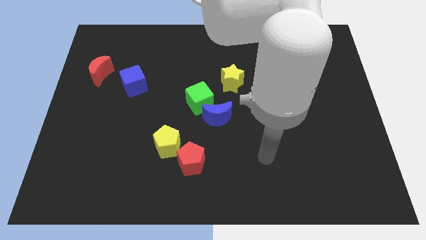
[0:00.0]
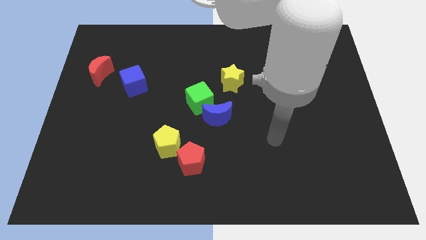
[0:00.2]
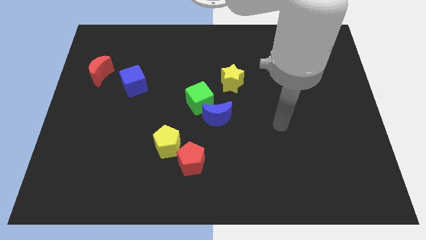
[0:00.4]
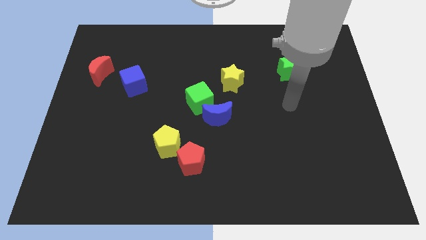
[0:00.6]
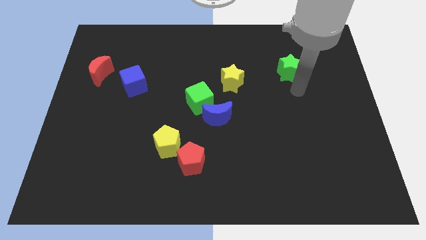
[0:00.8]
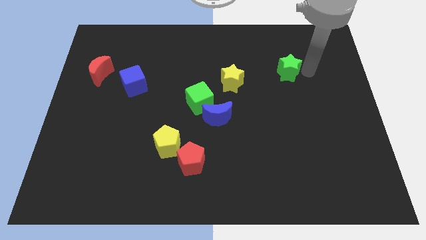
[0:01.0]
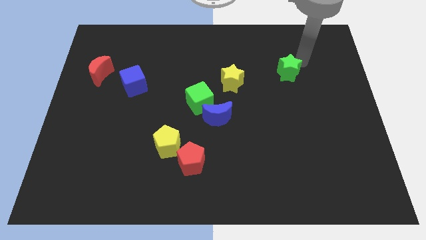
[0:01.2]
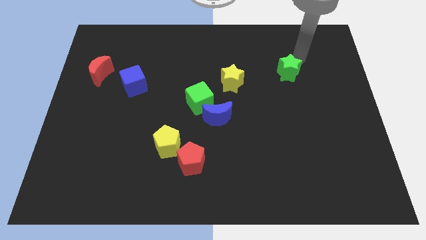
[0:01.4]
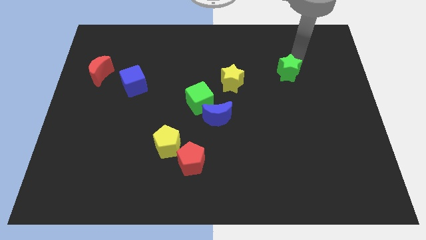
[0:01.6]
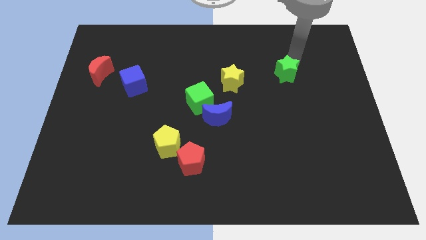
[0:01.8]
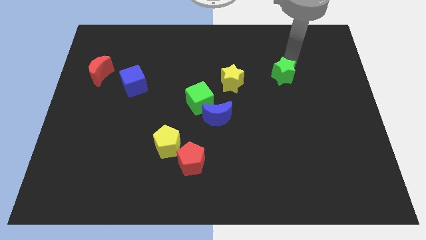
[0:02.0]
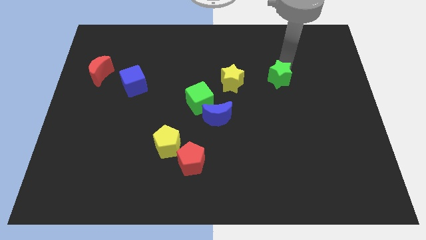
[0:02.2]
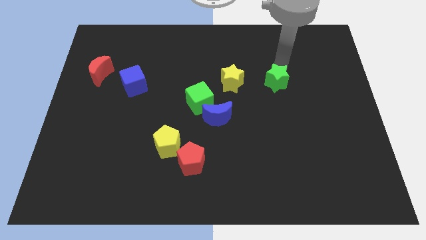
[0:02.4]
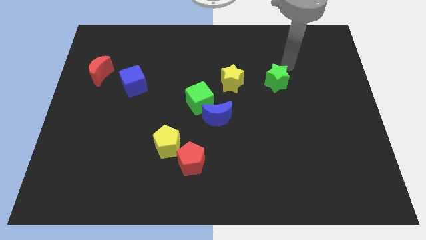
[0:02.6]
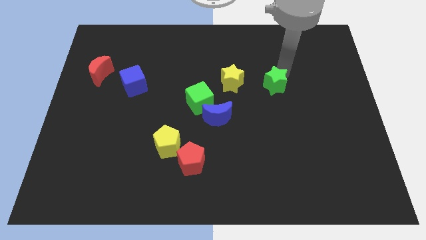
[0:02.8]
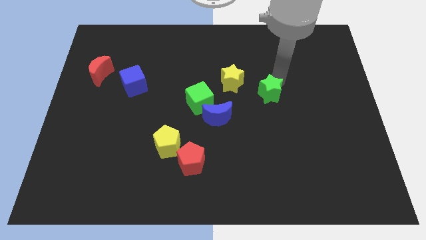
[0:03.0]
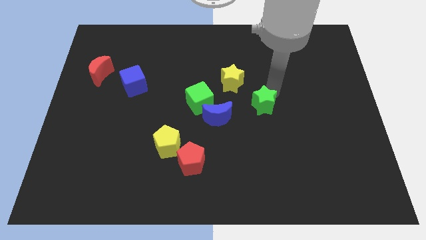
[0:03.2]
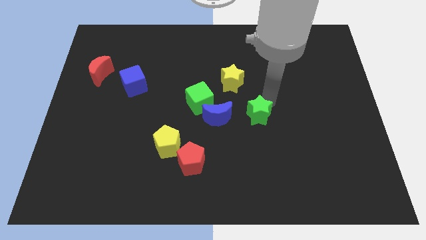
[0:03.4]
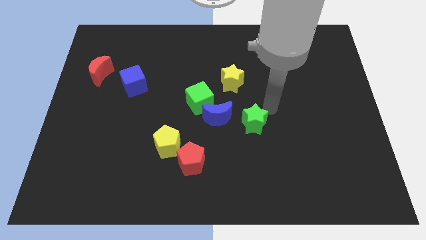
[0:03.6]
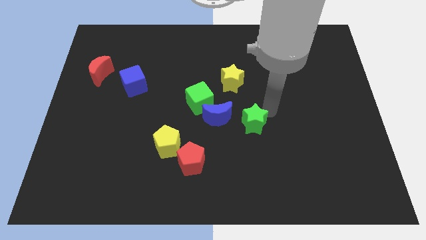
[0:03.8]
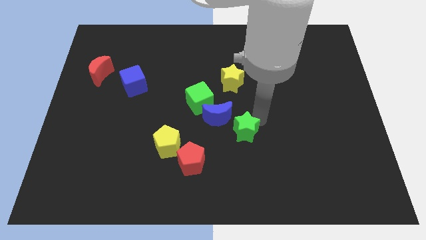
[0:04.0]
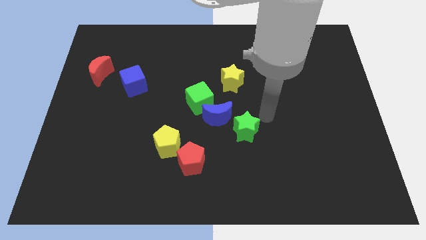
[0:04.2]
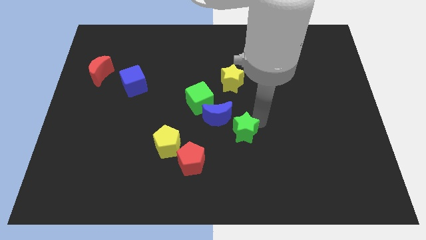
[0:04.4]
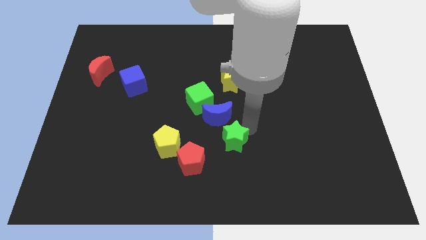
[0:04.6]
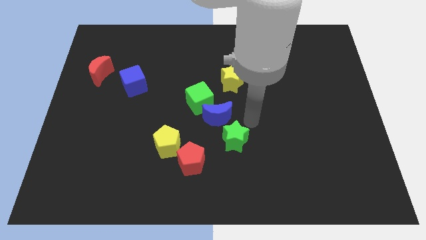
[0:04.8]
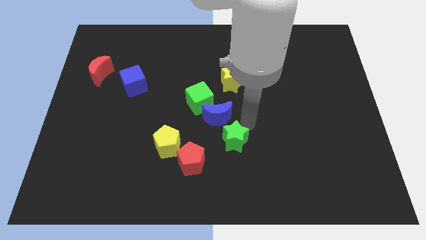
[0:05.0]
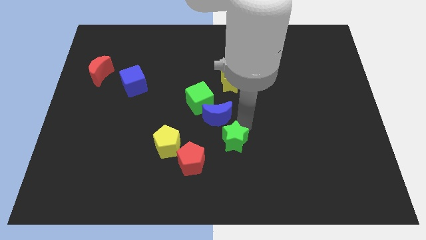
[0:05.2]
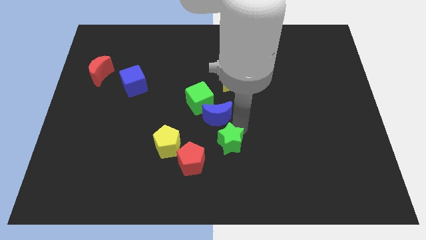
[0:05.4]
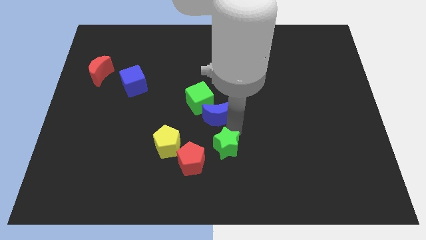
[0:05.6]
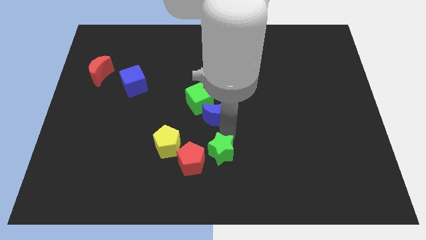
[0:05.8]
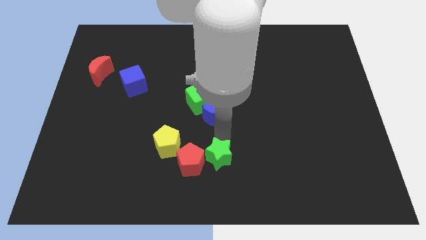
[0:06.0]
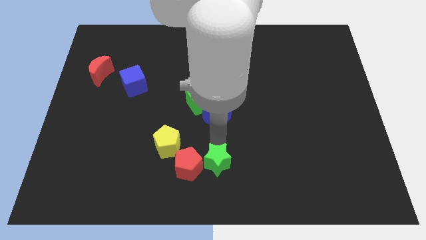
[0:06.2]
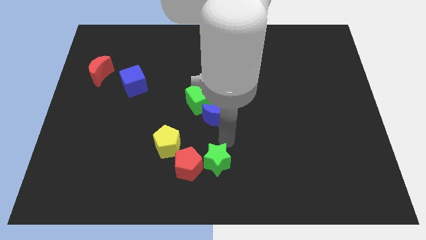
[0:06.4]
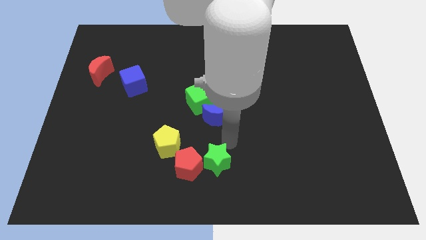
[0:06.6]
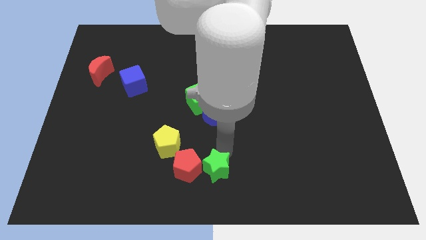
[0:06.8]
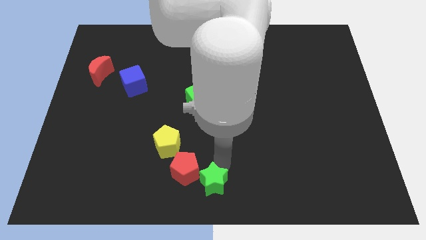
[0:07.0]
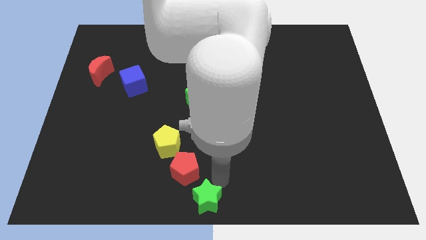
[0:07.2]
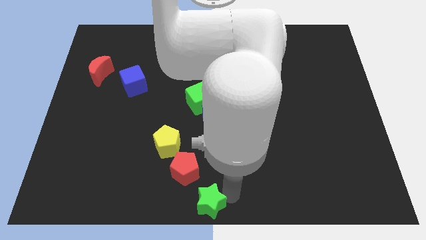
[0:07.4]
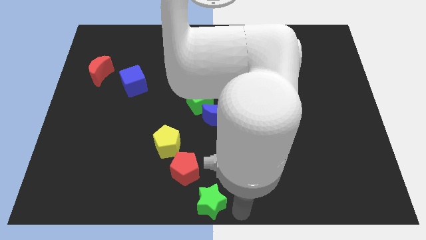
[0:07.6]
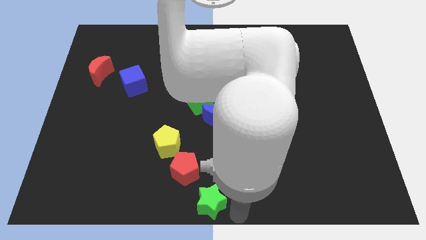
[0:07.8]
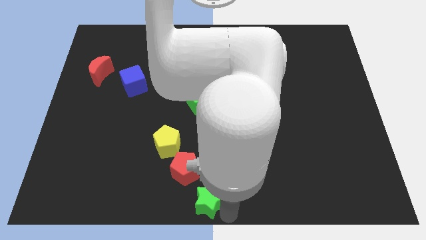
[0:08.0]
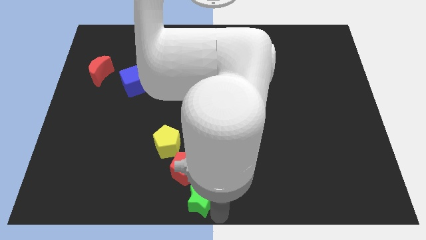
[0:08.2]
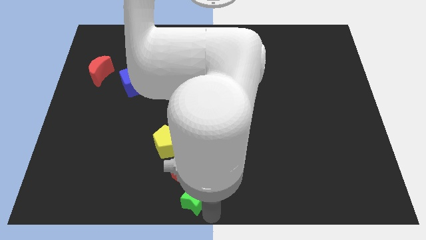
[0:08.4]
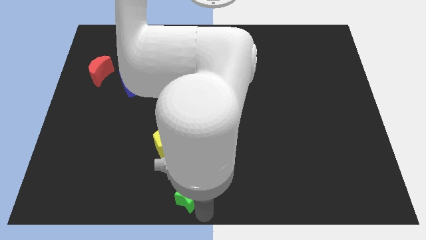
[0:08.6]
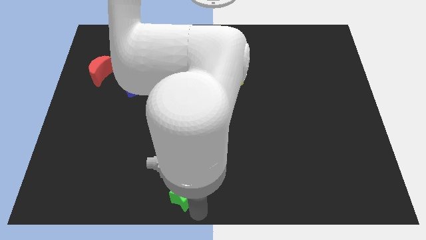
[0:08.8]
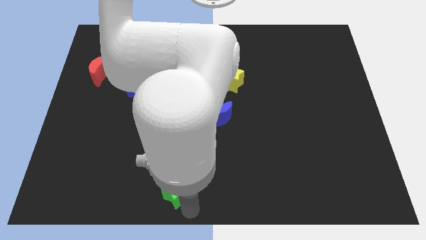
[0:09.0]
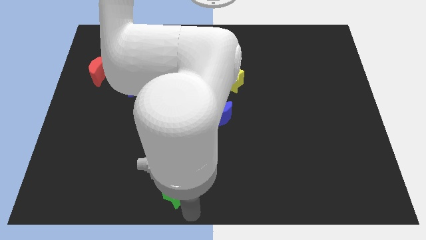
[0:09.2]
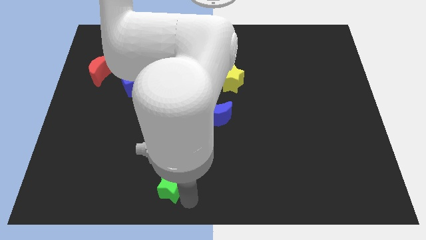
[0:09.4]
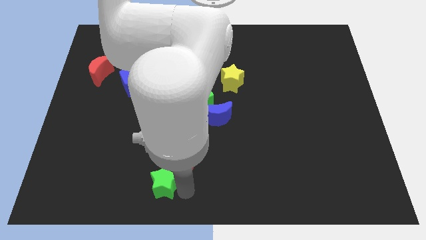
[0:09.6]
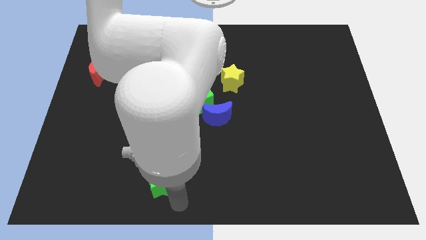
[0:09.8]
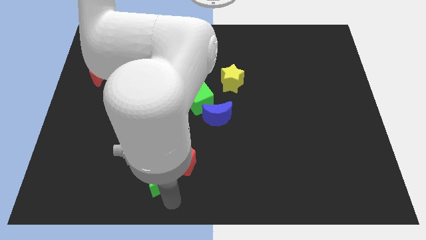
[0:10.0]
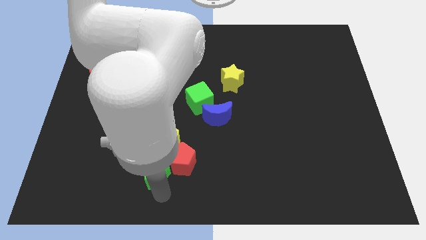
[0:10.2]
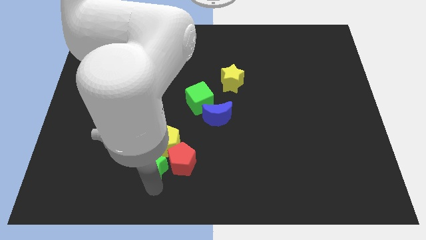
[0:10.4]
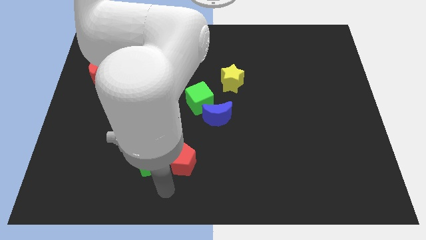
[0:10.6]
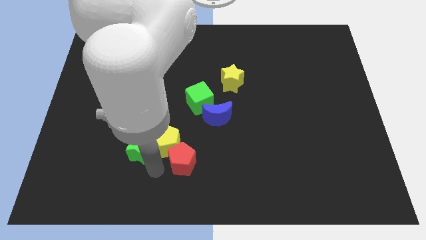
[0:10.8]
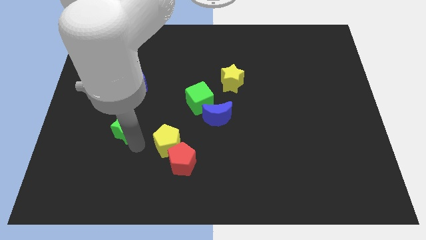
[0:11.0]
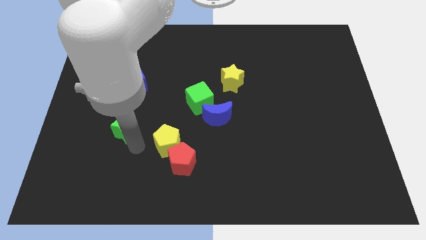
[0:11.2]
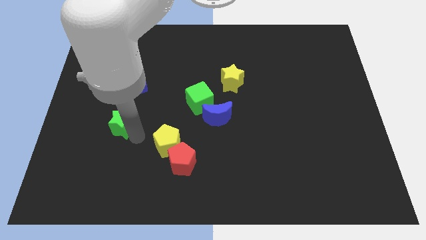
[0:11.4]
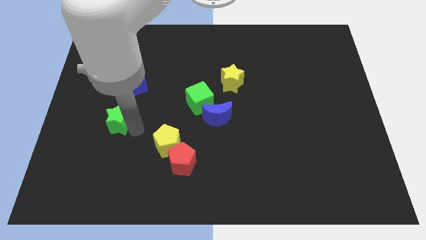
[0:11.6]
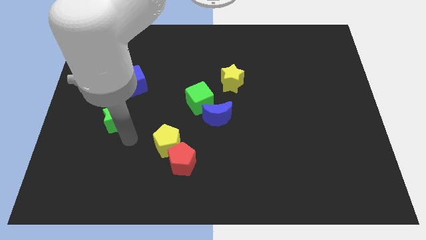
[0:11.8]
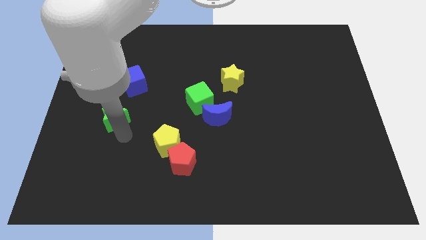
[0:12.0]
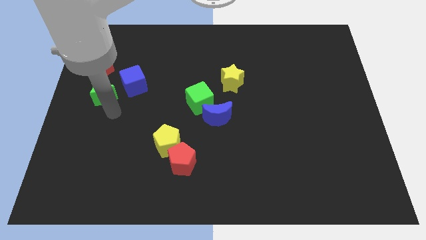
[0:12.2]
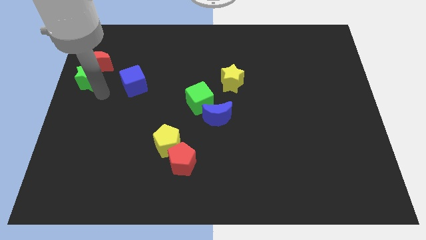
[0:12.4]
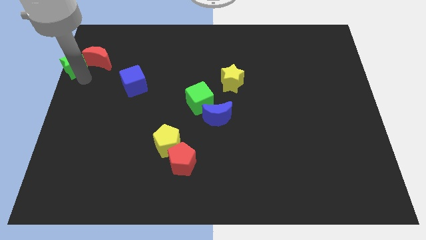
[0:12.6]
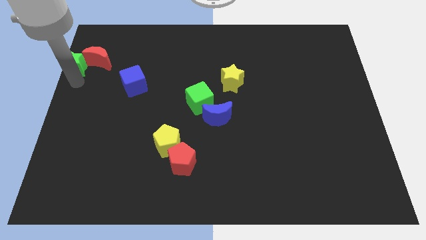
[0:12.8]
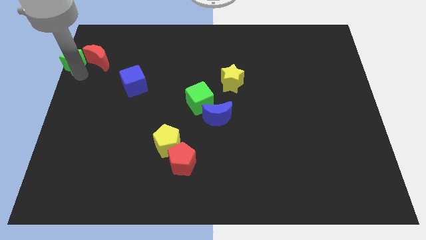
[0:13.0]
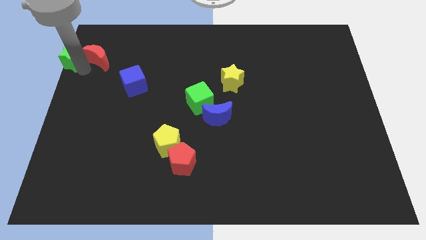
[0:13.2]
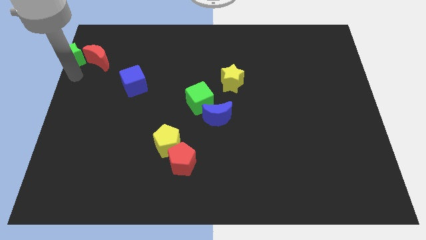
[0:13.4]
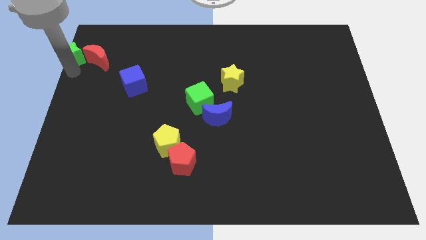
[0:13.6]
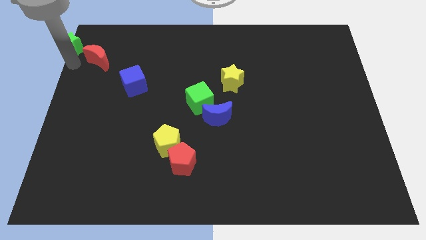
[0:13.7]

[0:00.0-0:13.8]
move the green star to the upper left corner
